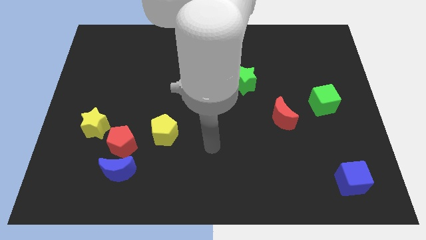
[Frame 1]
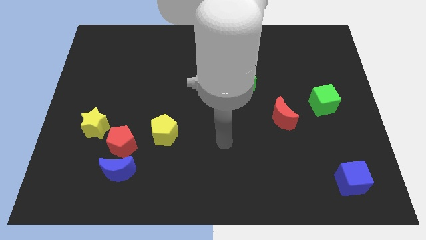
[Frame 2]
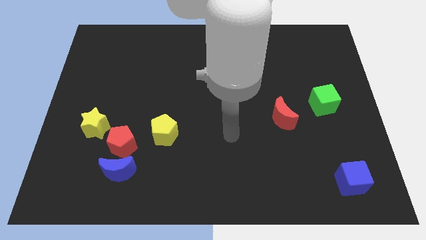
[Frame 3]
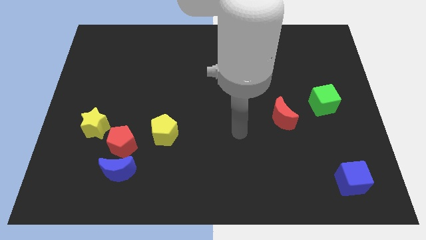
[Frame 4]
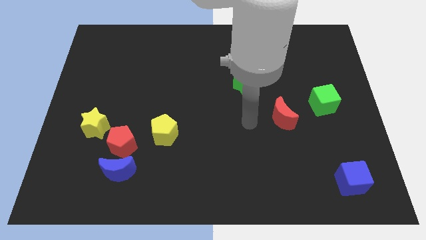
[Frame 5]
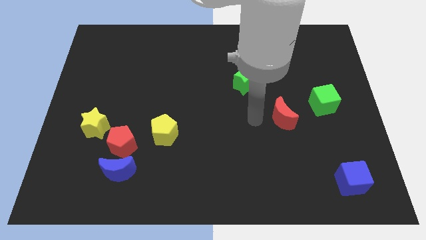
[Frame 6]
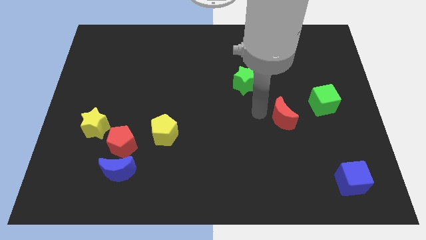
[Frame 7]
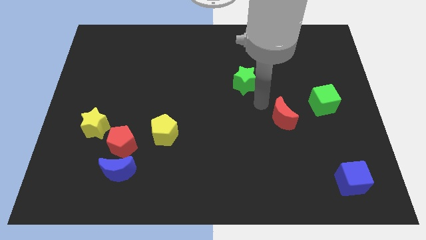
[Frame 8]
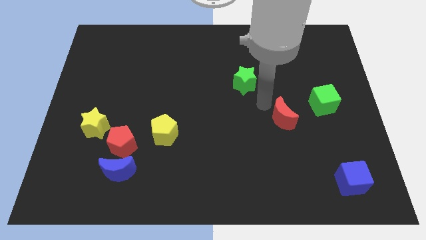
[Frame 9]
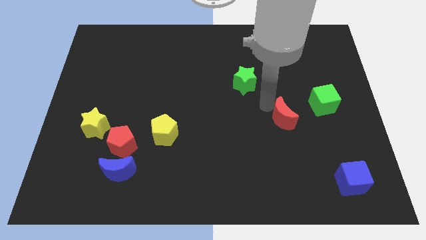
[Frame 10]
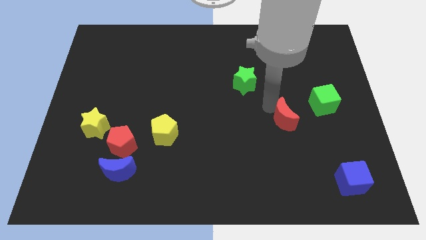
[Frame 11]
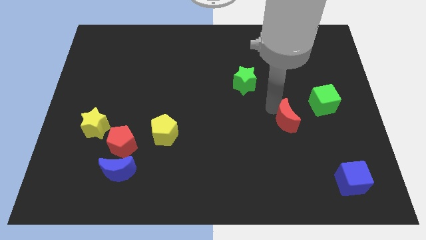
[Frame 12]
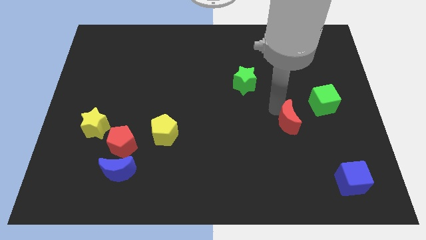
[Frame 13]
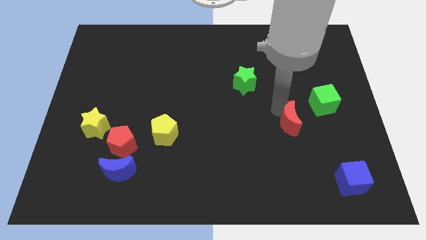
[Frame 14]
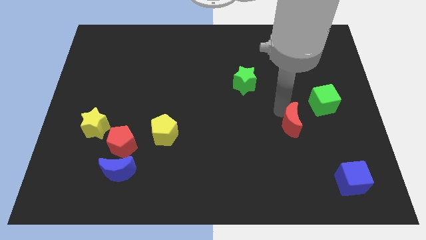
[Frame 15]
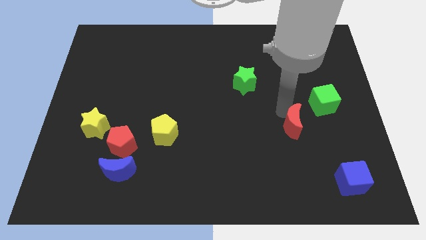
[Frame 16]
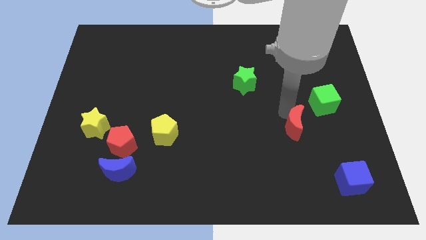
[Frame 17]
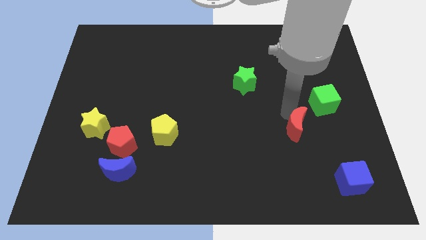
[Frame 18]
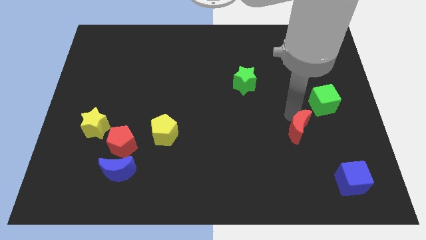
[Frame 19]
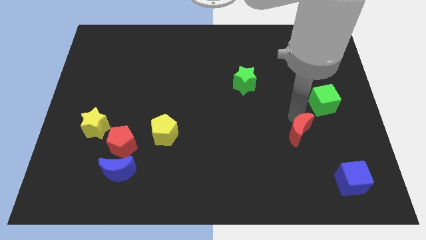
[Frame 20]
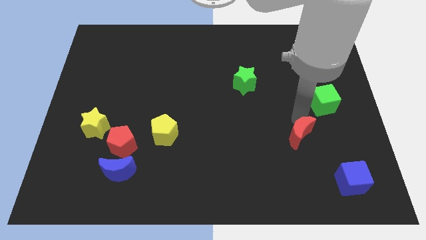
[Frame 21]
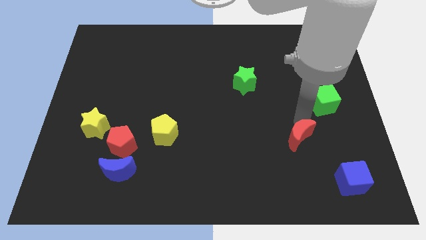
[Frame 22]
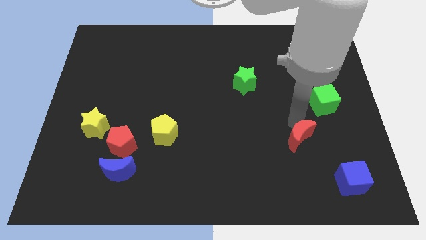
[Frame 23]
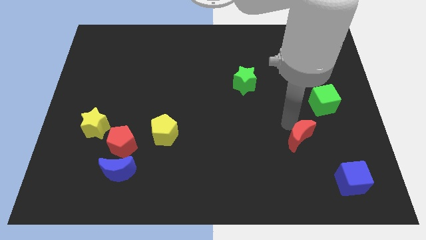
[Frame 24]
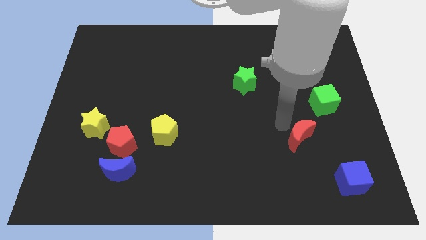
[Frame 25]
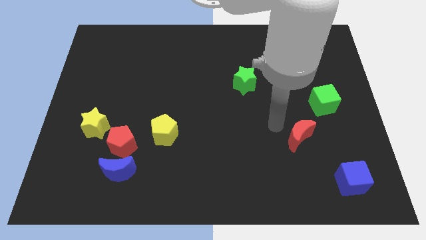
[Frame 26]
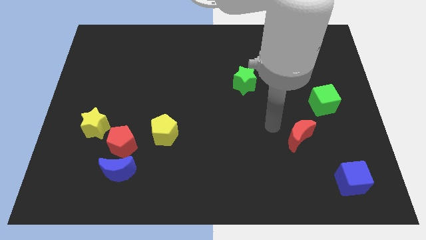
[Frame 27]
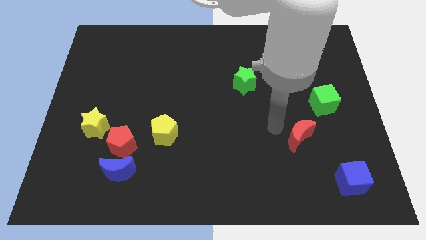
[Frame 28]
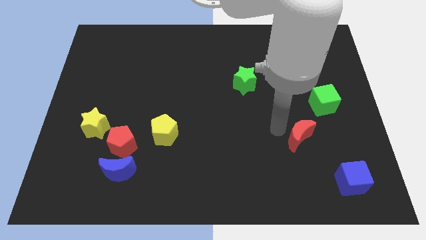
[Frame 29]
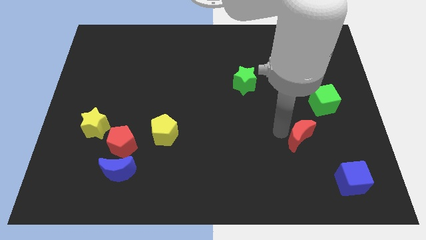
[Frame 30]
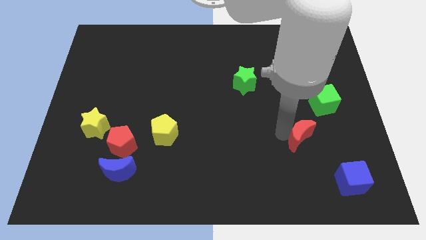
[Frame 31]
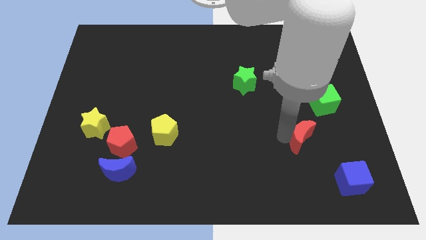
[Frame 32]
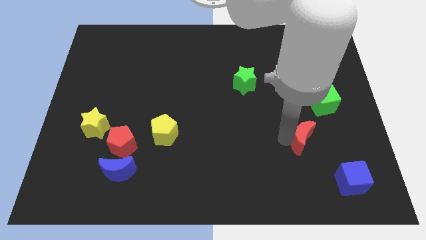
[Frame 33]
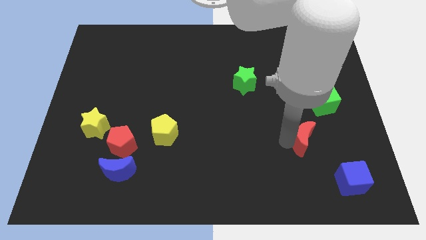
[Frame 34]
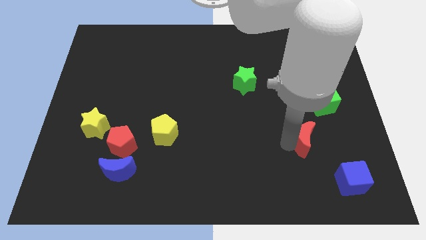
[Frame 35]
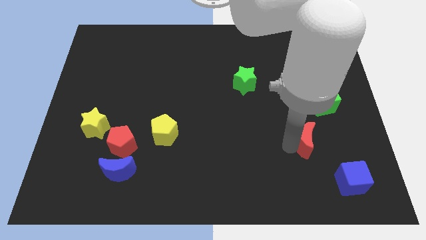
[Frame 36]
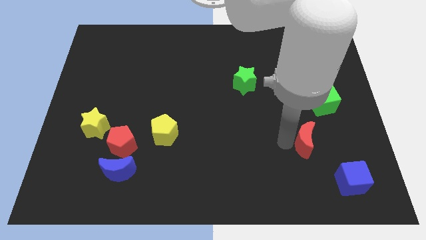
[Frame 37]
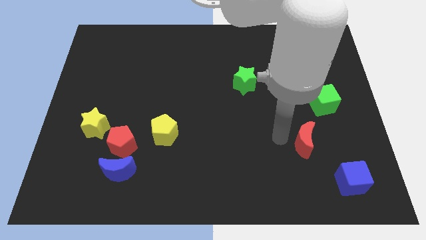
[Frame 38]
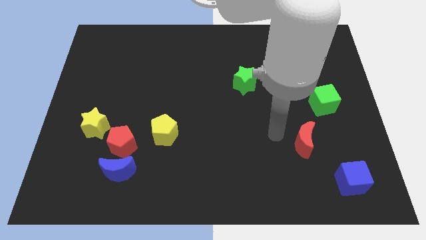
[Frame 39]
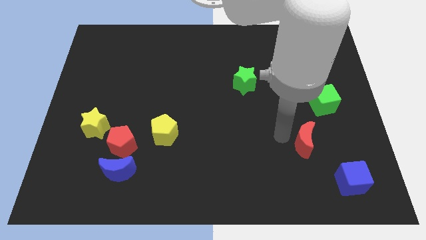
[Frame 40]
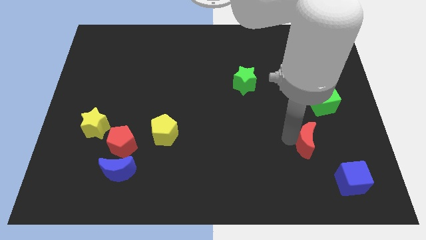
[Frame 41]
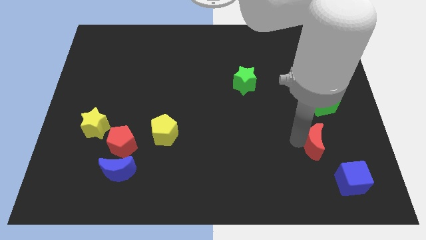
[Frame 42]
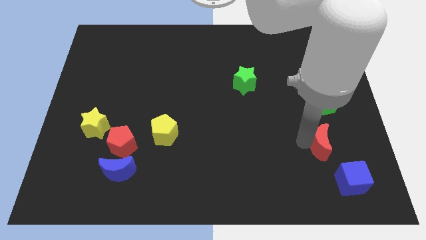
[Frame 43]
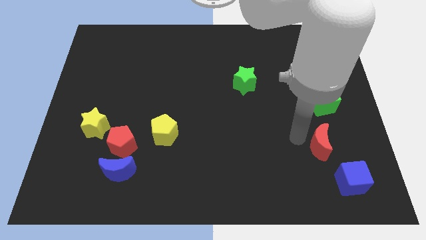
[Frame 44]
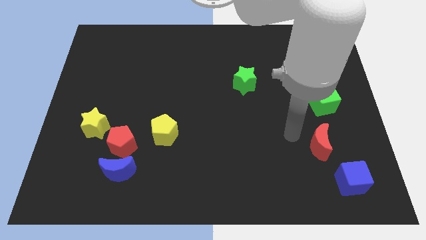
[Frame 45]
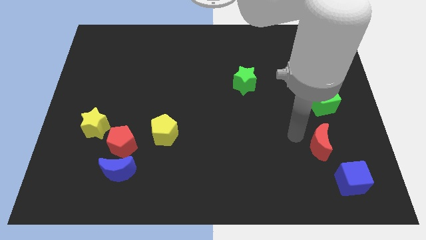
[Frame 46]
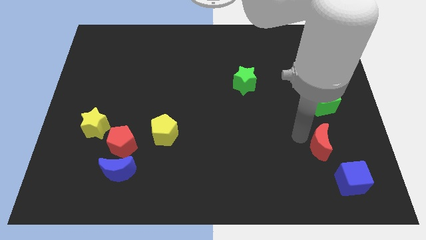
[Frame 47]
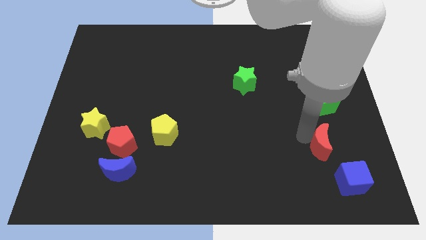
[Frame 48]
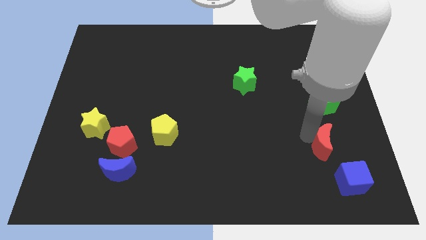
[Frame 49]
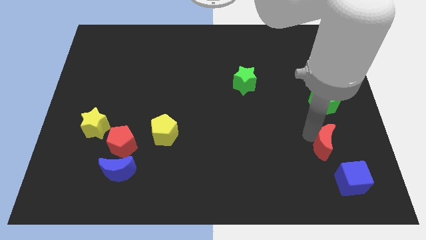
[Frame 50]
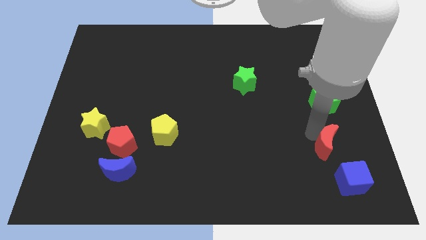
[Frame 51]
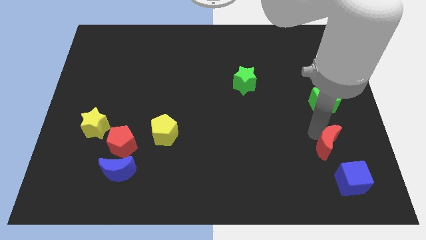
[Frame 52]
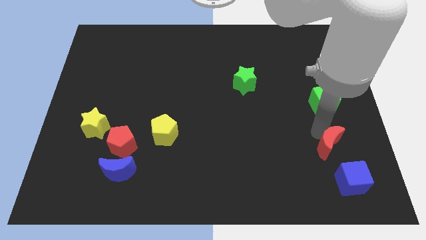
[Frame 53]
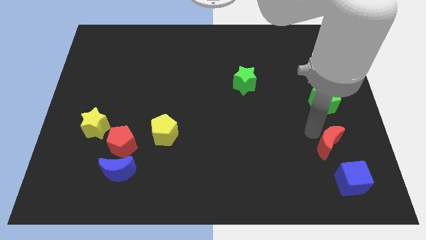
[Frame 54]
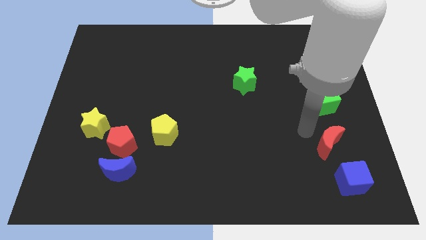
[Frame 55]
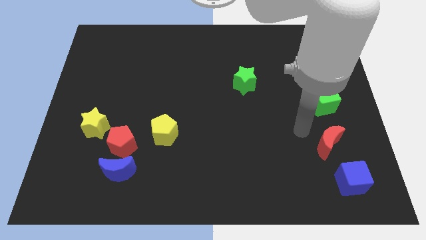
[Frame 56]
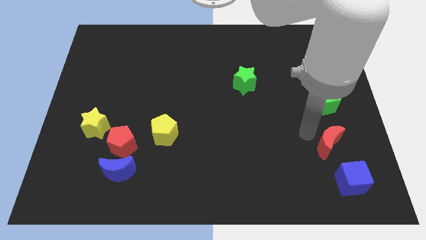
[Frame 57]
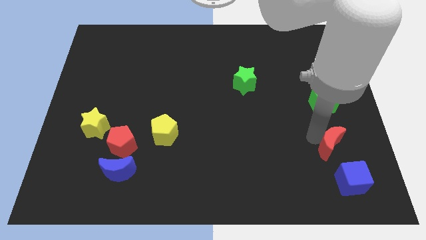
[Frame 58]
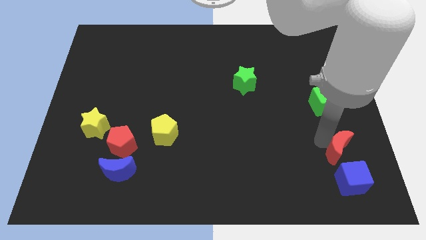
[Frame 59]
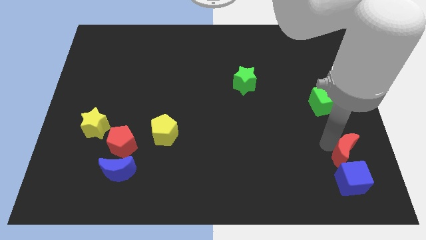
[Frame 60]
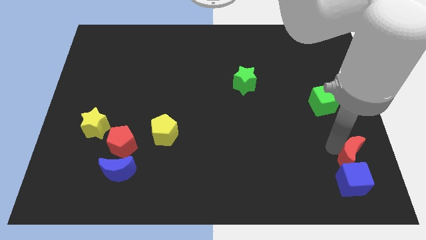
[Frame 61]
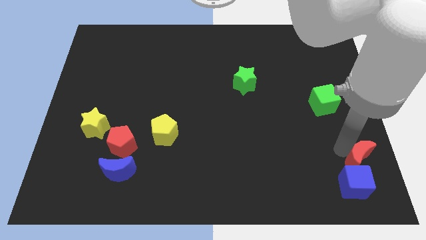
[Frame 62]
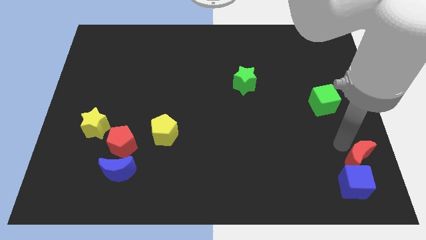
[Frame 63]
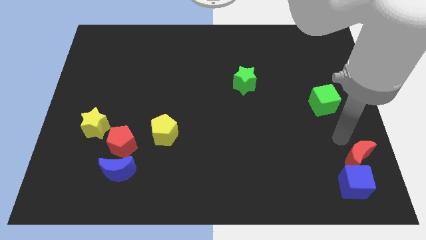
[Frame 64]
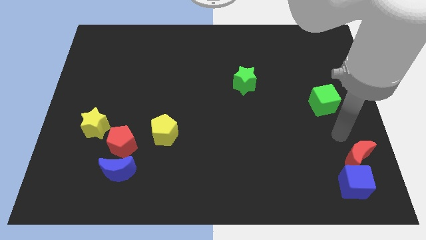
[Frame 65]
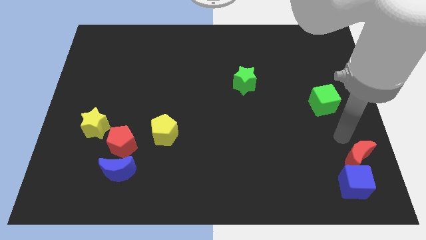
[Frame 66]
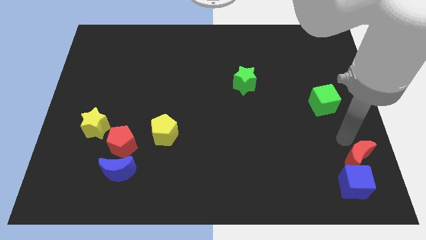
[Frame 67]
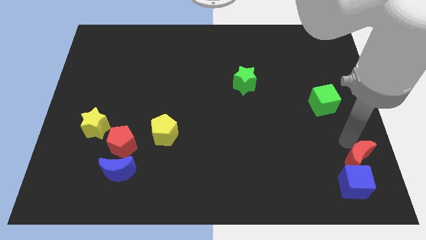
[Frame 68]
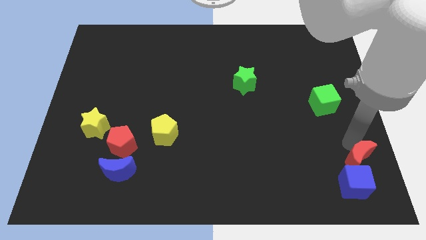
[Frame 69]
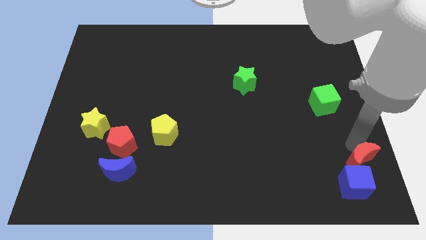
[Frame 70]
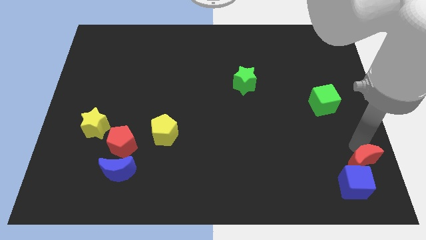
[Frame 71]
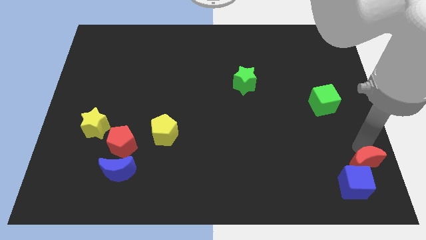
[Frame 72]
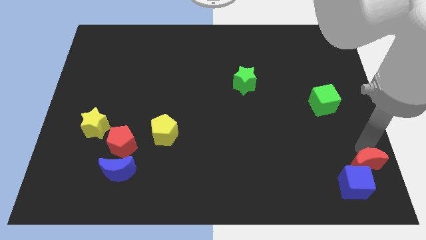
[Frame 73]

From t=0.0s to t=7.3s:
push the red moon to the lower right corner

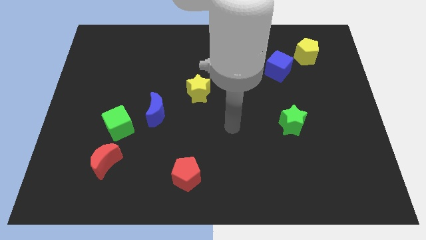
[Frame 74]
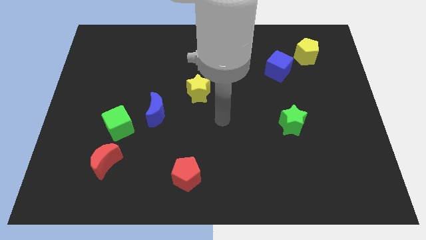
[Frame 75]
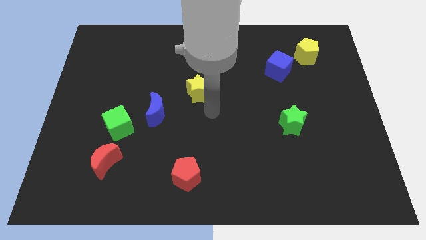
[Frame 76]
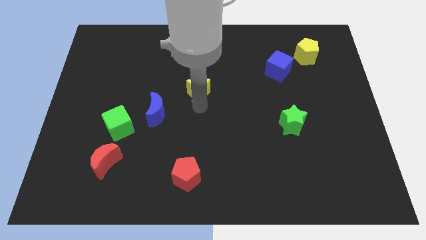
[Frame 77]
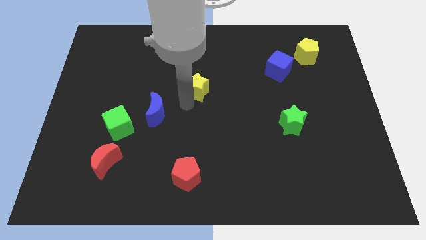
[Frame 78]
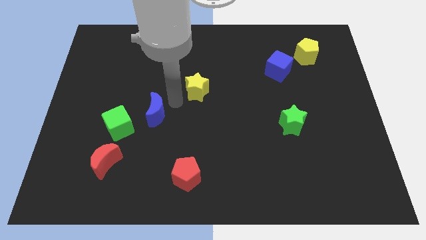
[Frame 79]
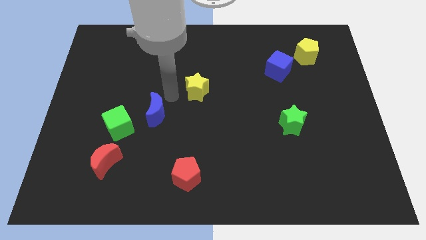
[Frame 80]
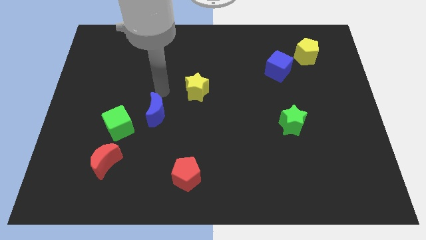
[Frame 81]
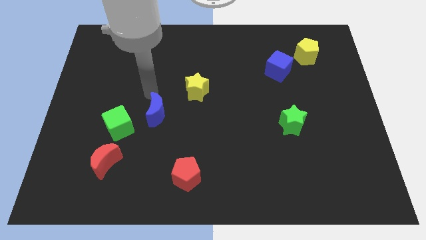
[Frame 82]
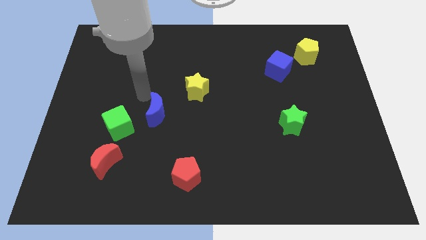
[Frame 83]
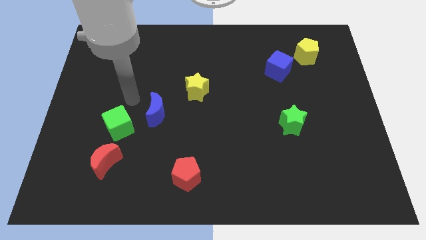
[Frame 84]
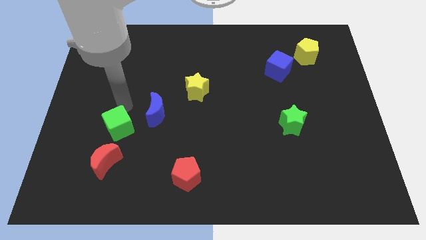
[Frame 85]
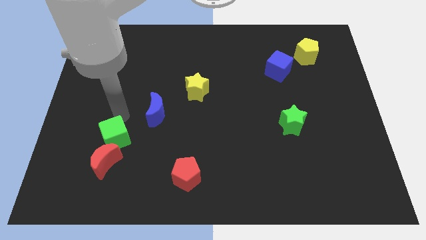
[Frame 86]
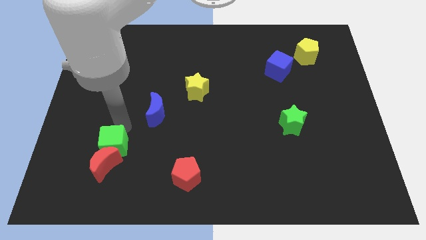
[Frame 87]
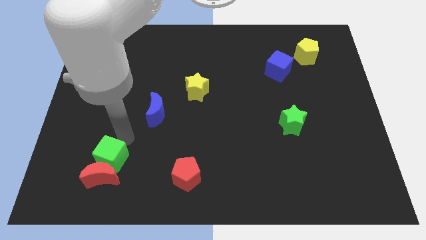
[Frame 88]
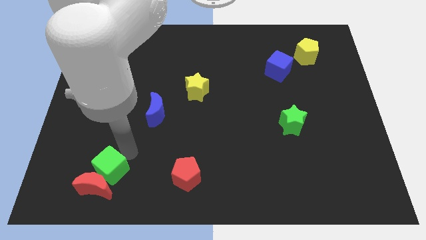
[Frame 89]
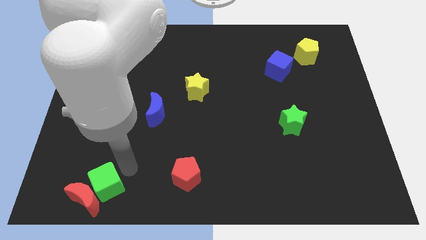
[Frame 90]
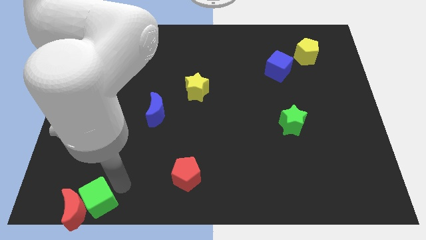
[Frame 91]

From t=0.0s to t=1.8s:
slide the red moon to the bottom left corner
